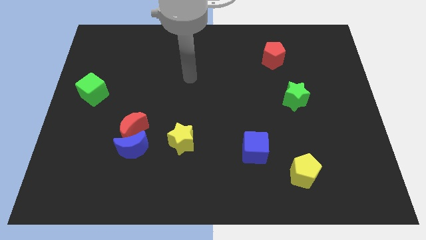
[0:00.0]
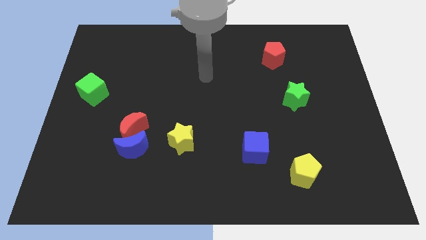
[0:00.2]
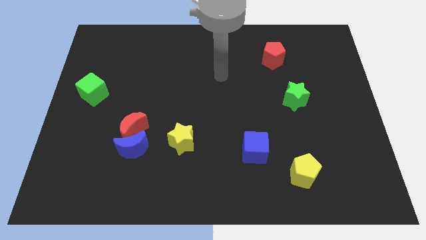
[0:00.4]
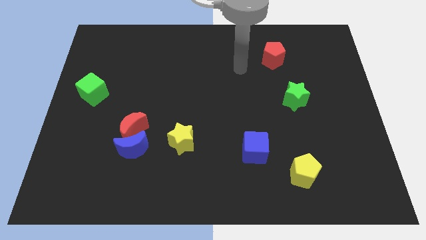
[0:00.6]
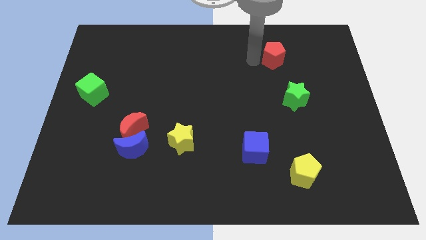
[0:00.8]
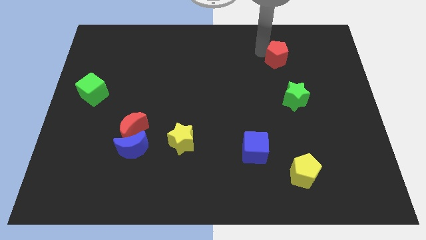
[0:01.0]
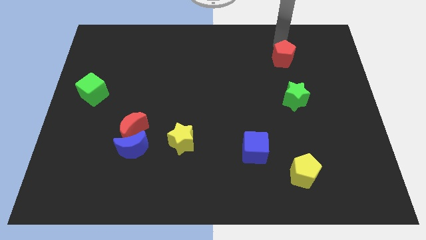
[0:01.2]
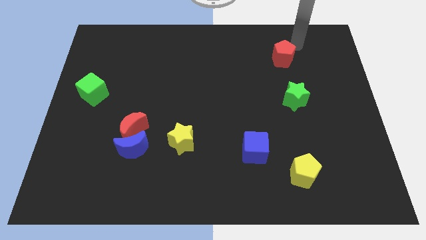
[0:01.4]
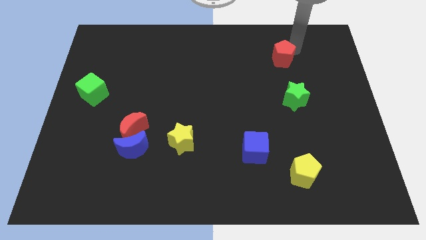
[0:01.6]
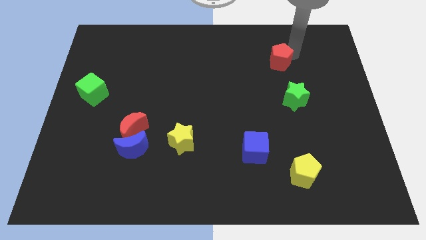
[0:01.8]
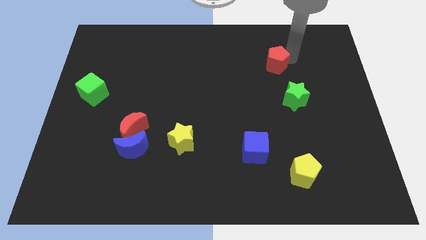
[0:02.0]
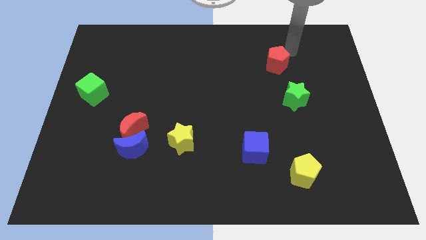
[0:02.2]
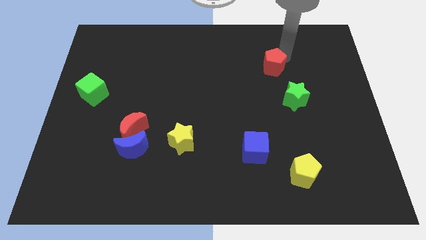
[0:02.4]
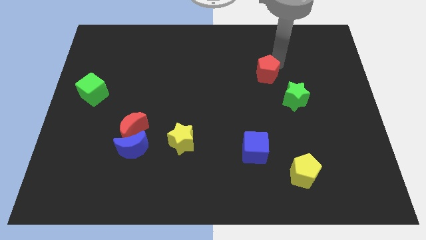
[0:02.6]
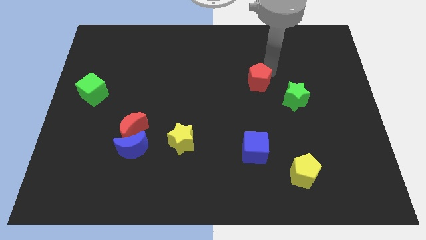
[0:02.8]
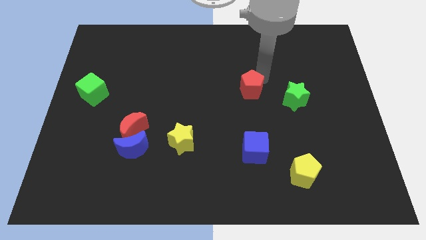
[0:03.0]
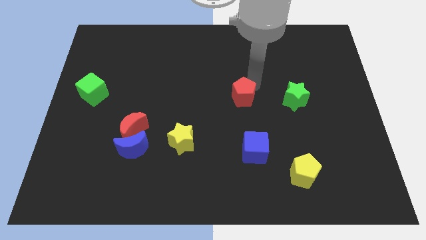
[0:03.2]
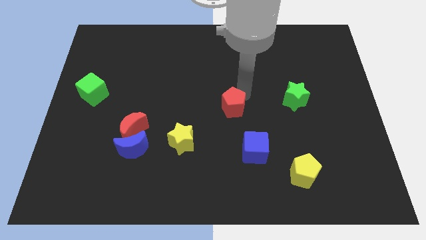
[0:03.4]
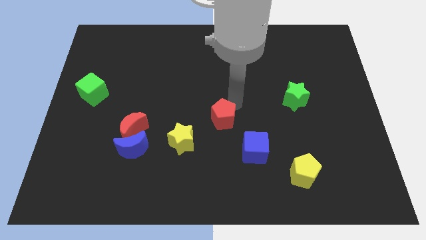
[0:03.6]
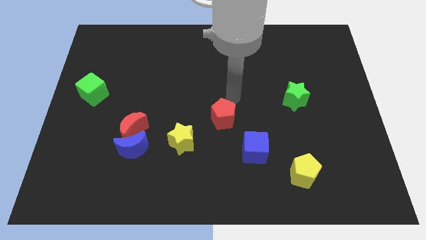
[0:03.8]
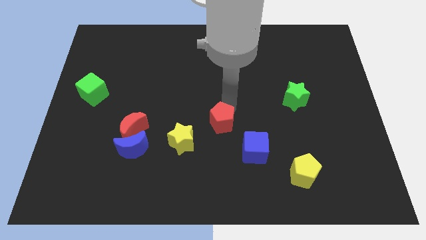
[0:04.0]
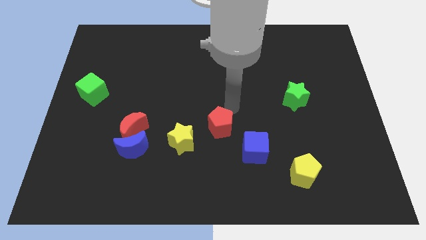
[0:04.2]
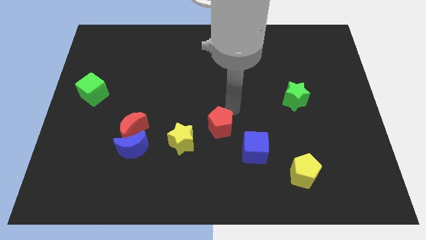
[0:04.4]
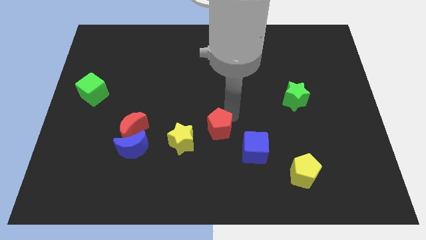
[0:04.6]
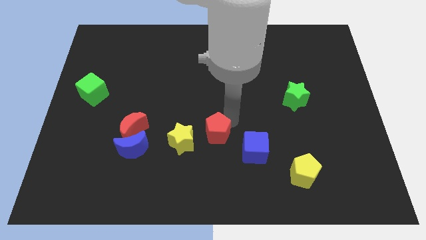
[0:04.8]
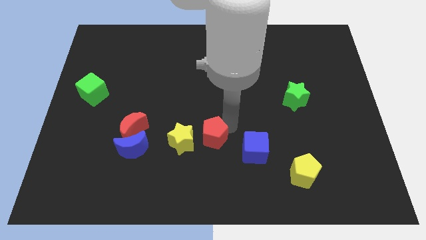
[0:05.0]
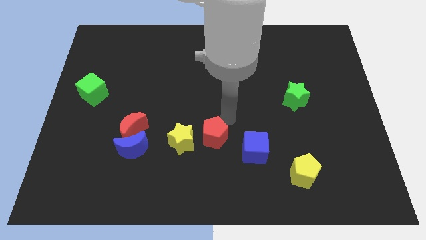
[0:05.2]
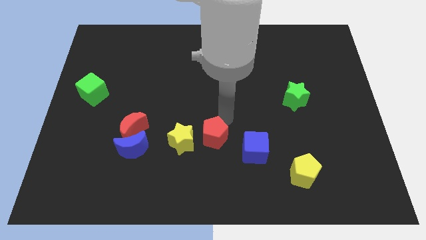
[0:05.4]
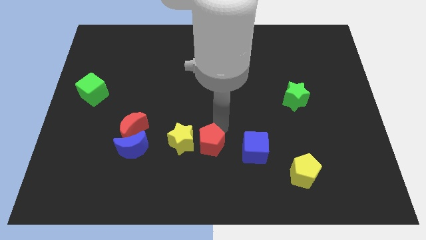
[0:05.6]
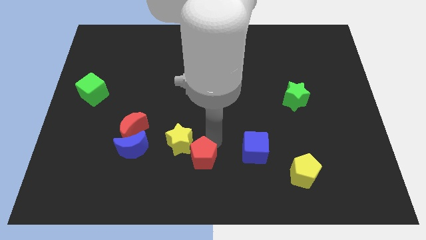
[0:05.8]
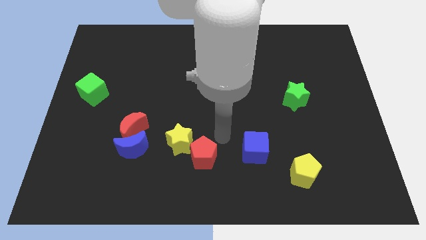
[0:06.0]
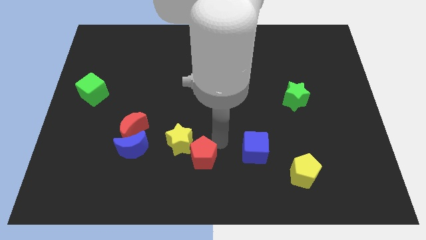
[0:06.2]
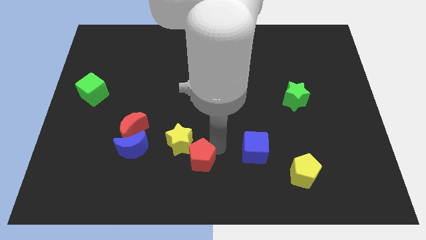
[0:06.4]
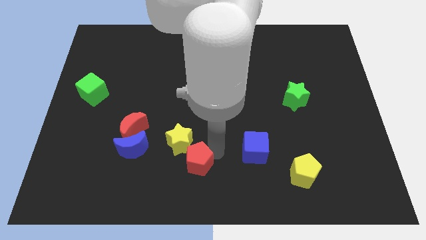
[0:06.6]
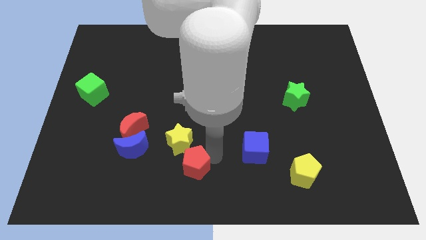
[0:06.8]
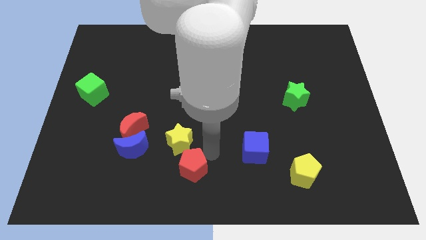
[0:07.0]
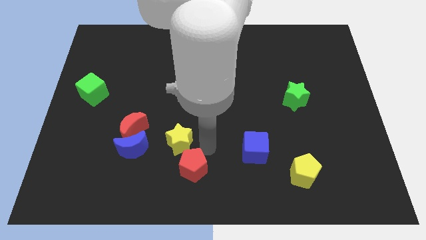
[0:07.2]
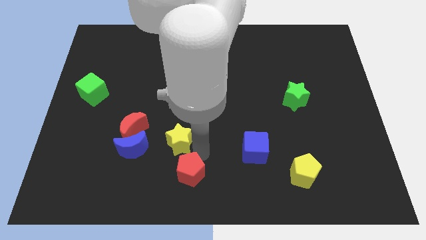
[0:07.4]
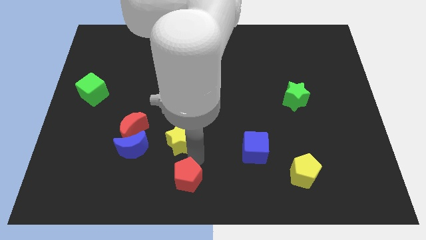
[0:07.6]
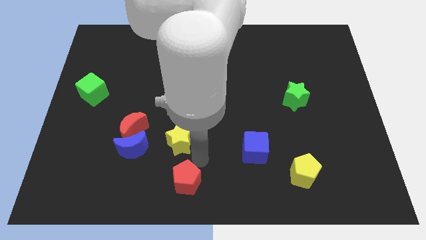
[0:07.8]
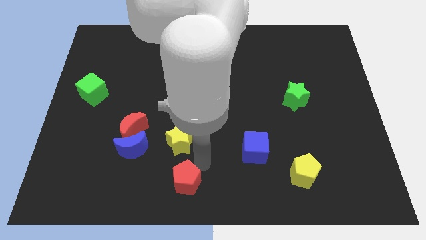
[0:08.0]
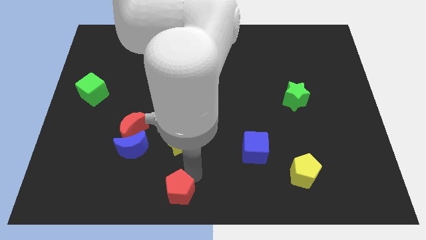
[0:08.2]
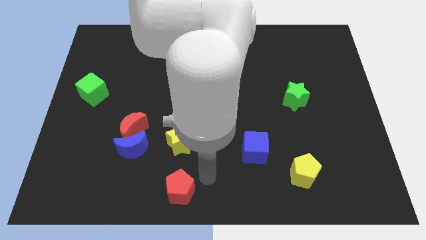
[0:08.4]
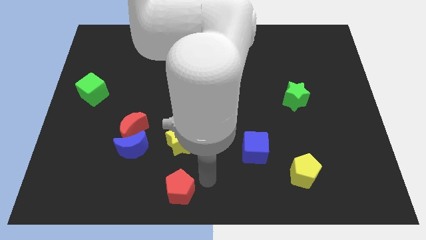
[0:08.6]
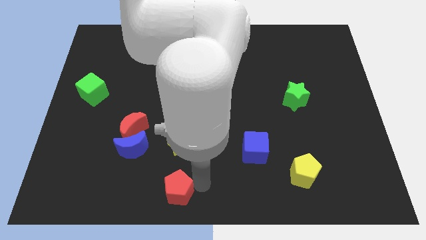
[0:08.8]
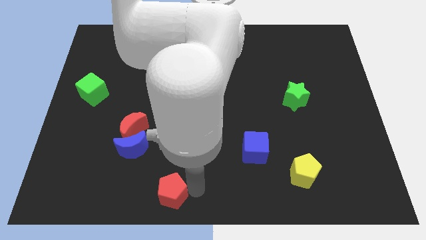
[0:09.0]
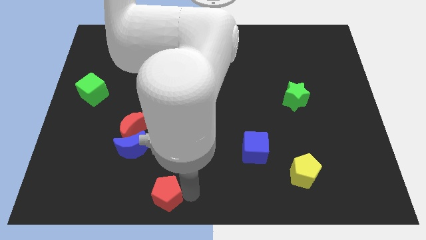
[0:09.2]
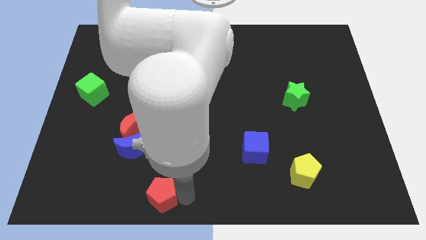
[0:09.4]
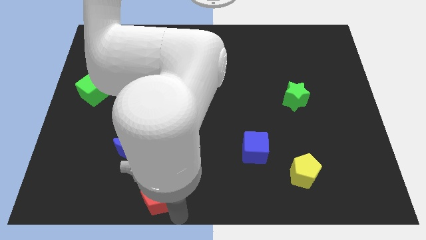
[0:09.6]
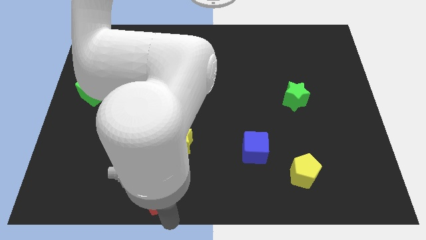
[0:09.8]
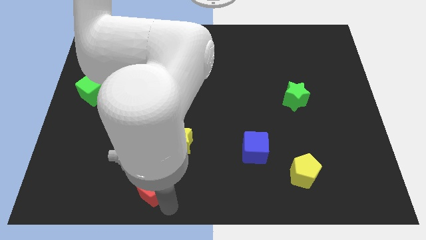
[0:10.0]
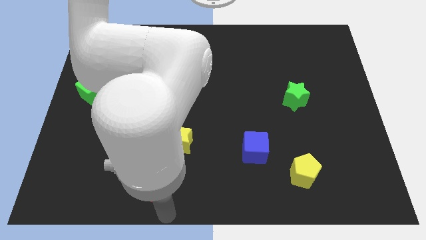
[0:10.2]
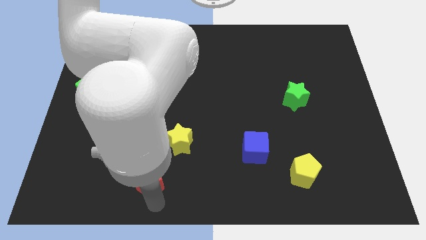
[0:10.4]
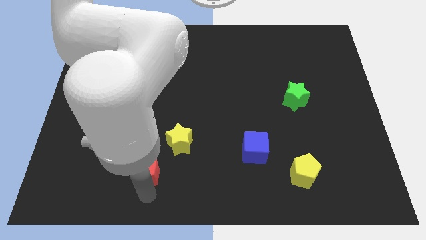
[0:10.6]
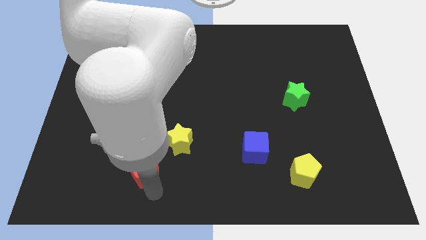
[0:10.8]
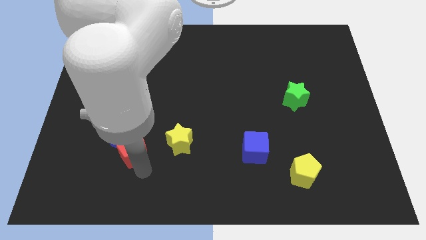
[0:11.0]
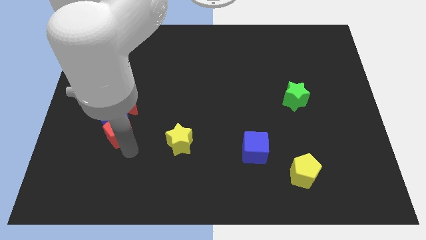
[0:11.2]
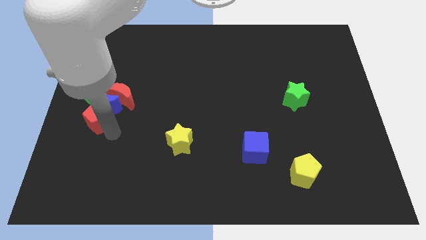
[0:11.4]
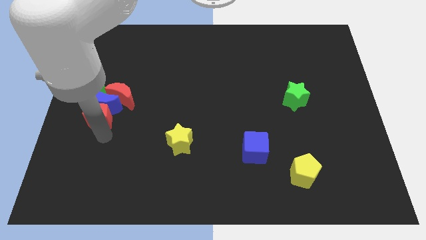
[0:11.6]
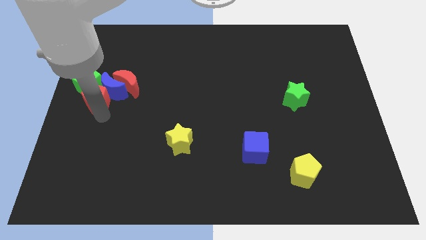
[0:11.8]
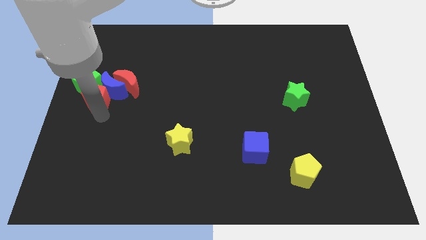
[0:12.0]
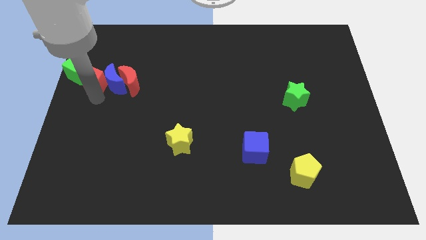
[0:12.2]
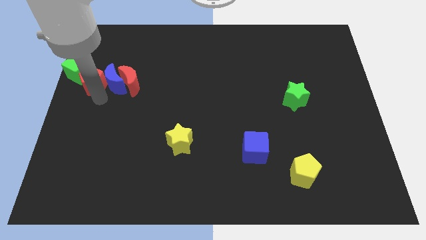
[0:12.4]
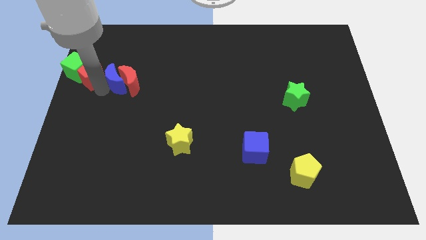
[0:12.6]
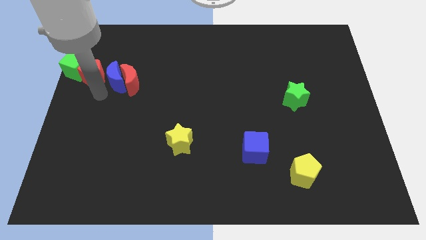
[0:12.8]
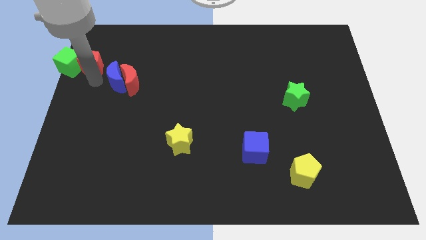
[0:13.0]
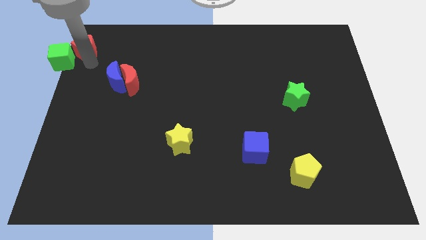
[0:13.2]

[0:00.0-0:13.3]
put the red pentagon to the upper left corner
